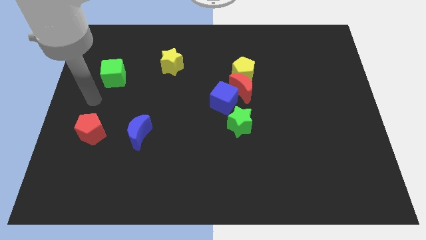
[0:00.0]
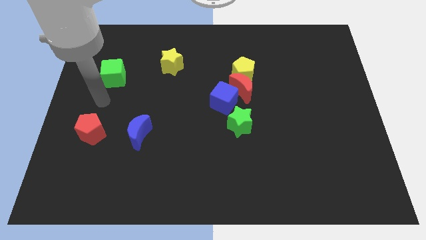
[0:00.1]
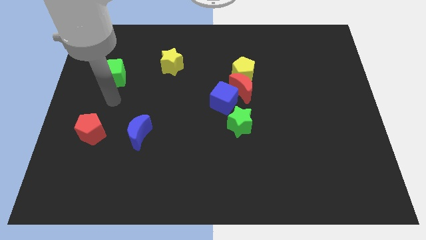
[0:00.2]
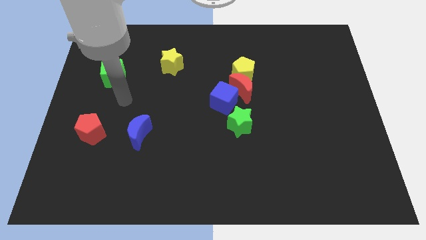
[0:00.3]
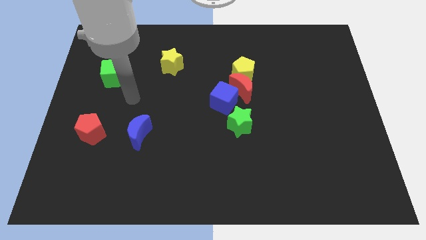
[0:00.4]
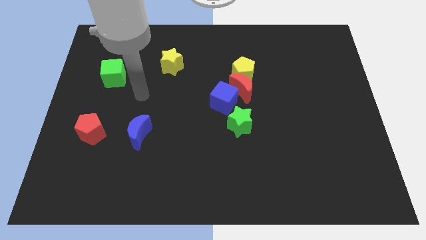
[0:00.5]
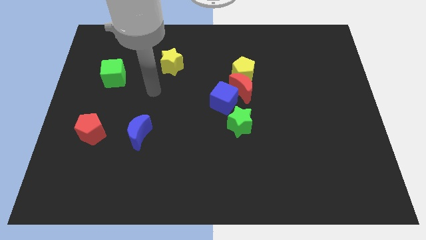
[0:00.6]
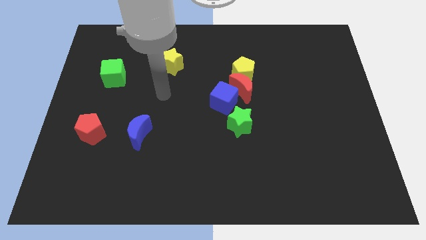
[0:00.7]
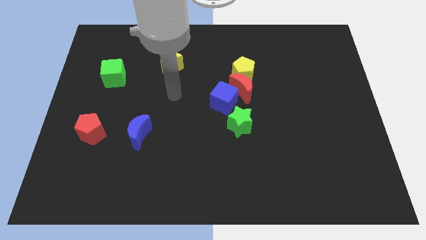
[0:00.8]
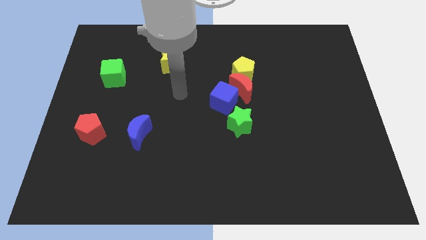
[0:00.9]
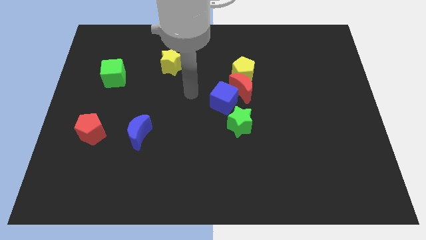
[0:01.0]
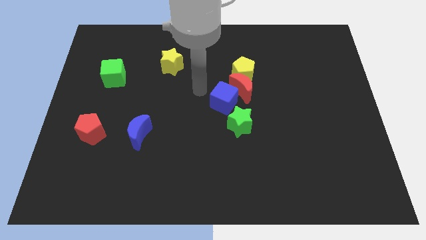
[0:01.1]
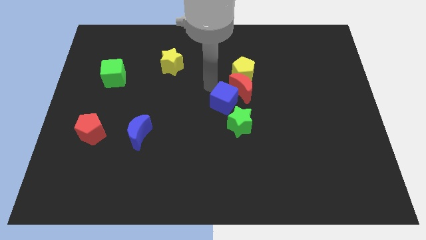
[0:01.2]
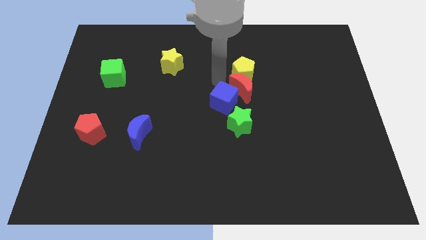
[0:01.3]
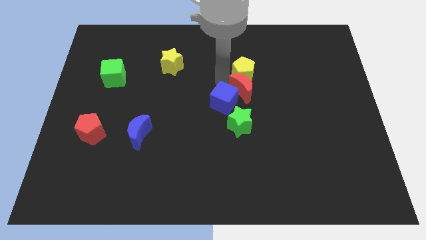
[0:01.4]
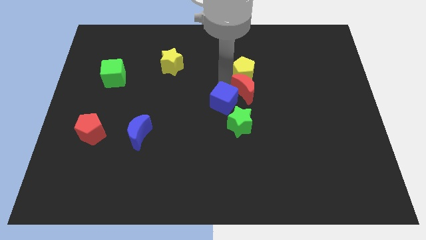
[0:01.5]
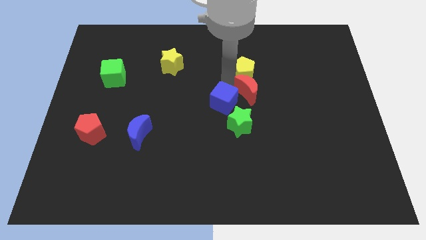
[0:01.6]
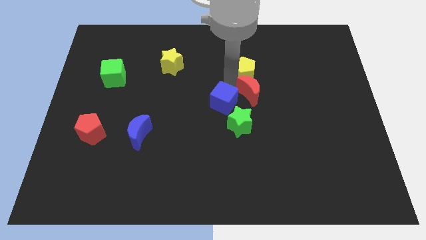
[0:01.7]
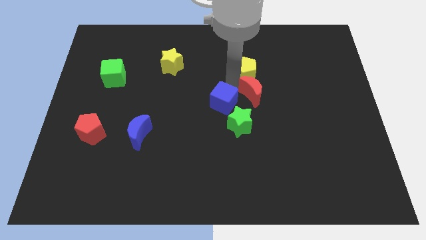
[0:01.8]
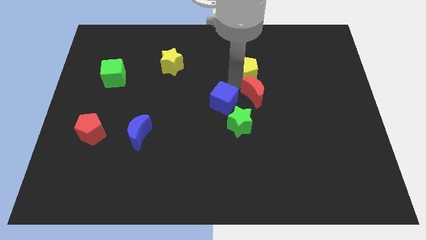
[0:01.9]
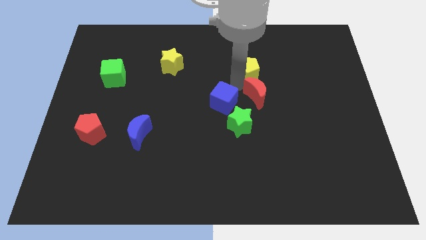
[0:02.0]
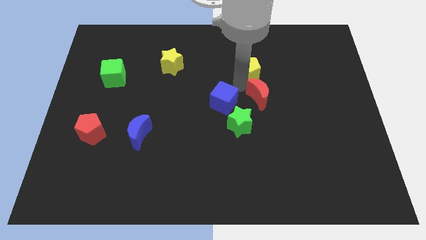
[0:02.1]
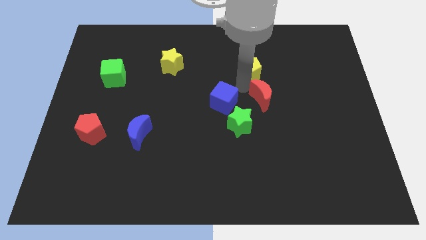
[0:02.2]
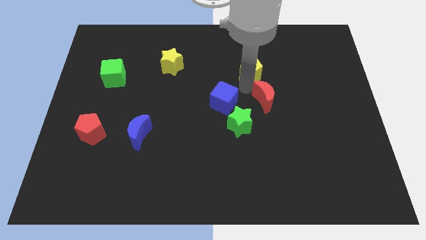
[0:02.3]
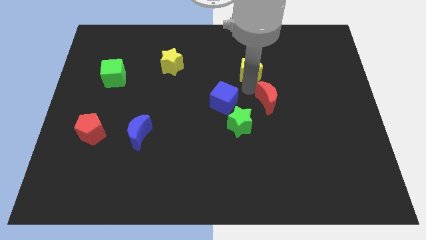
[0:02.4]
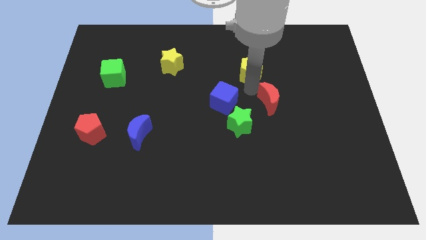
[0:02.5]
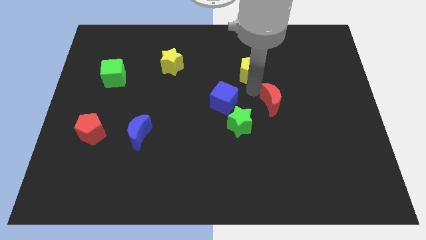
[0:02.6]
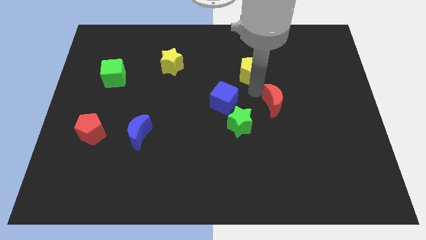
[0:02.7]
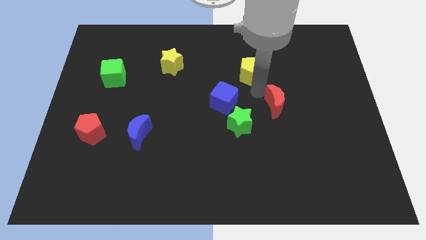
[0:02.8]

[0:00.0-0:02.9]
pull the red moon apart from the yellow pentagon and blue cube

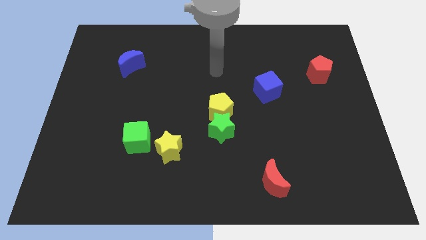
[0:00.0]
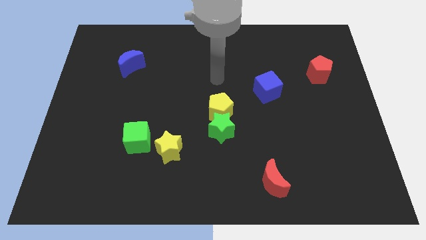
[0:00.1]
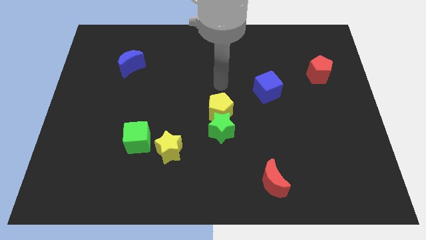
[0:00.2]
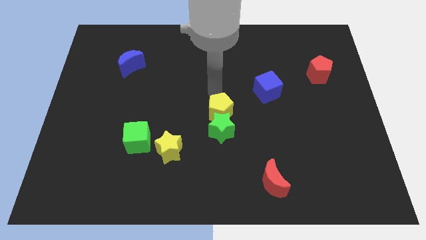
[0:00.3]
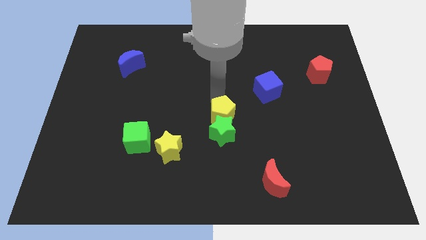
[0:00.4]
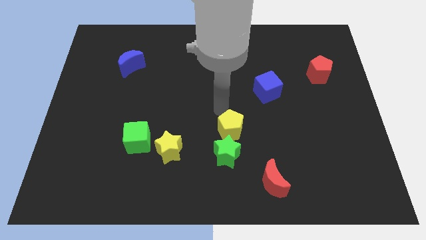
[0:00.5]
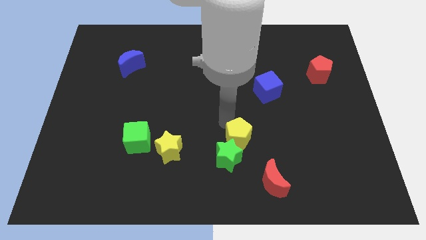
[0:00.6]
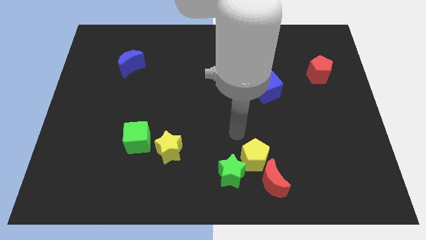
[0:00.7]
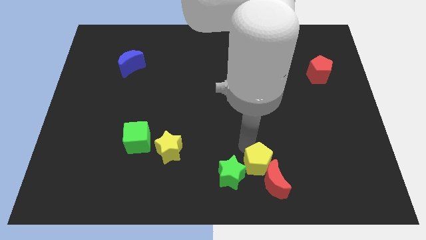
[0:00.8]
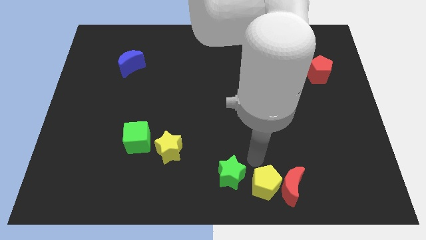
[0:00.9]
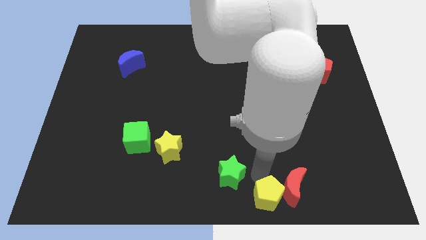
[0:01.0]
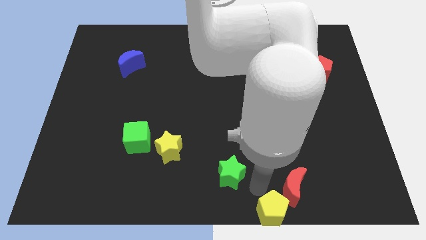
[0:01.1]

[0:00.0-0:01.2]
separate the green star from the yellow pentagon

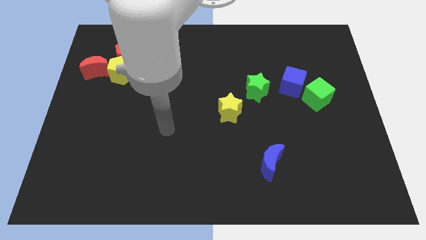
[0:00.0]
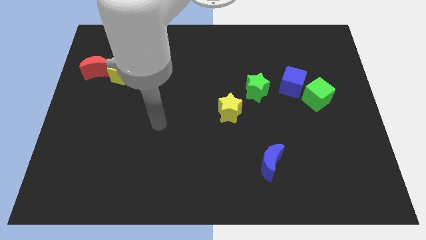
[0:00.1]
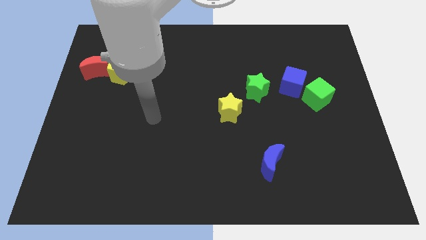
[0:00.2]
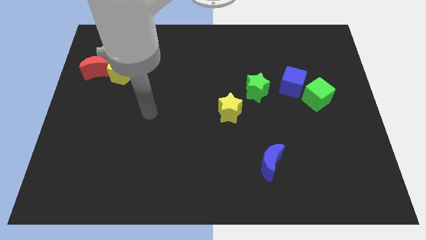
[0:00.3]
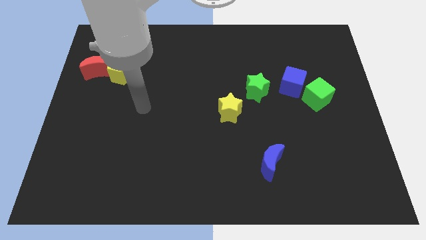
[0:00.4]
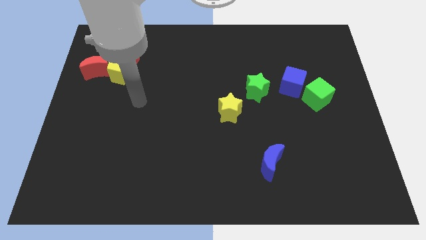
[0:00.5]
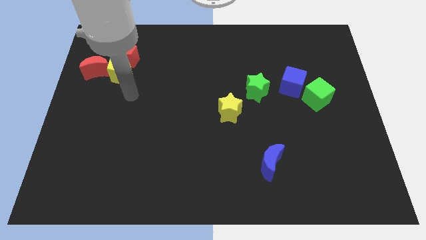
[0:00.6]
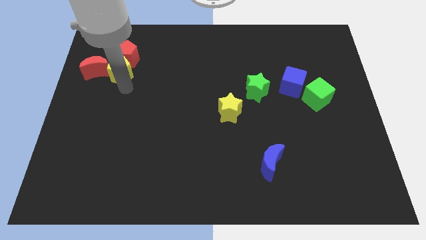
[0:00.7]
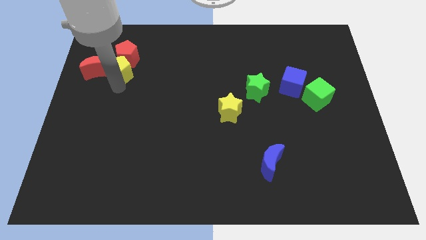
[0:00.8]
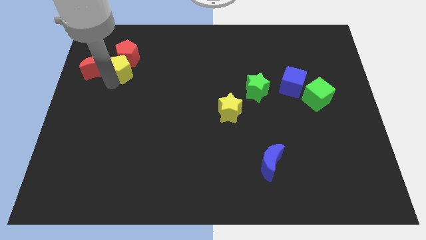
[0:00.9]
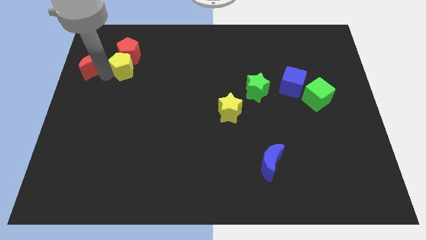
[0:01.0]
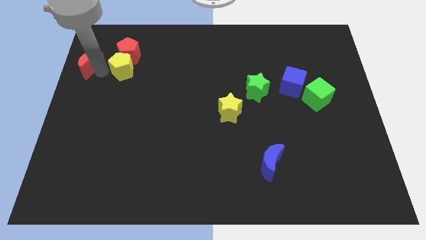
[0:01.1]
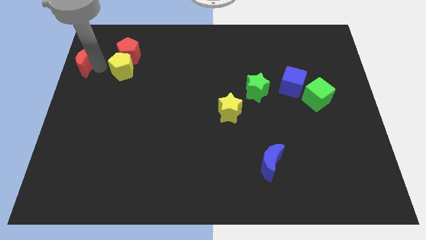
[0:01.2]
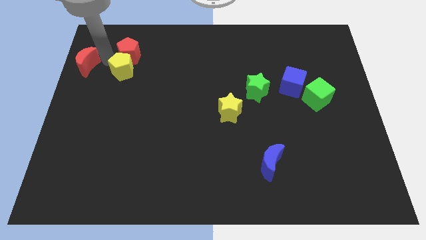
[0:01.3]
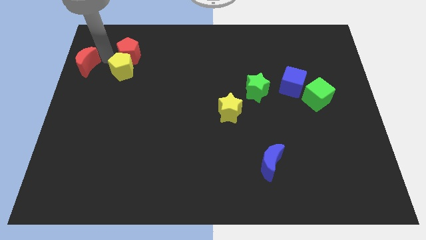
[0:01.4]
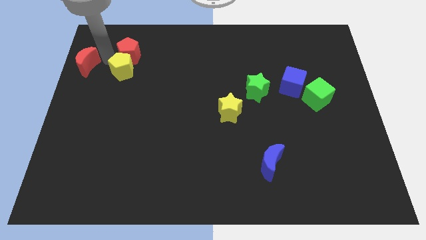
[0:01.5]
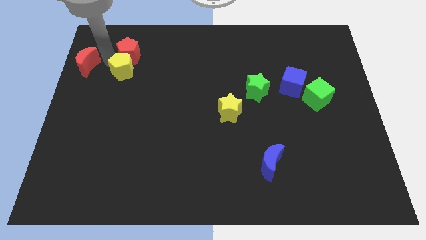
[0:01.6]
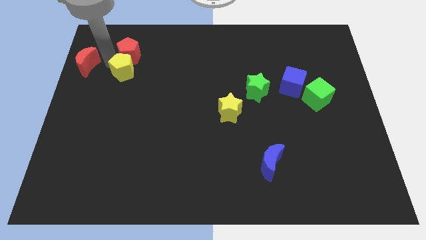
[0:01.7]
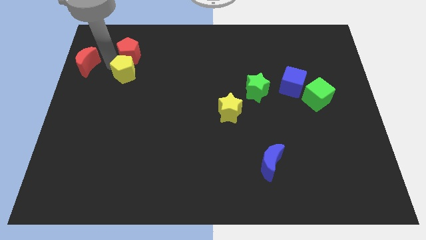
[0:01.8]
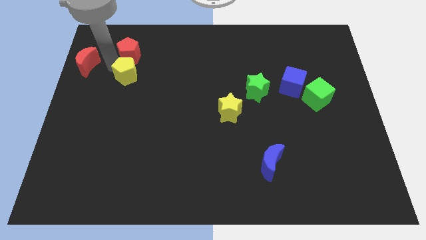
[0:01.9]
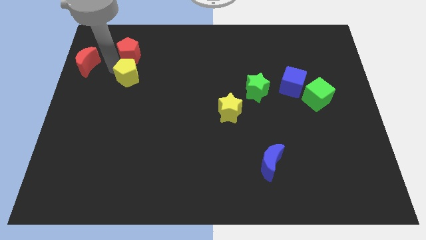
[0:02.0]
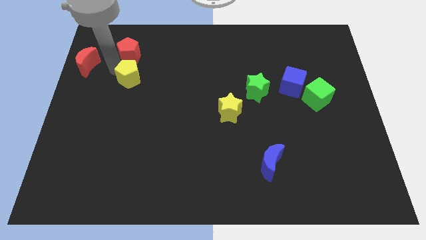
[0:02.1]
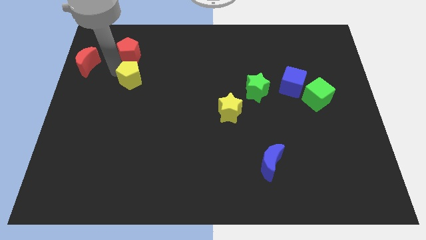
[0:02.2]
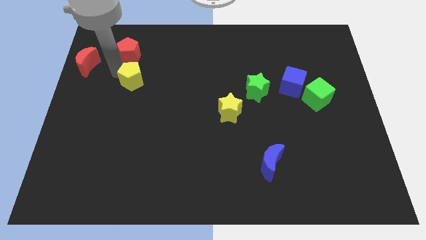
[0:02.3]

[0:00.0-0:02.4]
separate the yellow pentagon from the red pentagon and red moon

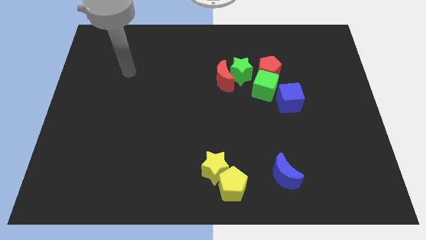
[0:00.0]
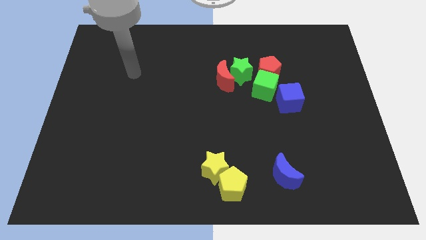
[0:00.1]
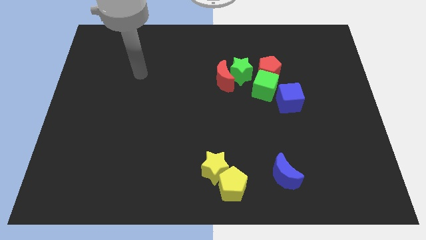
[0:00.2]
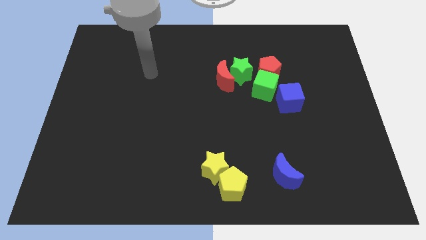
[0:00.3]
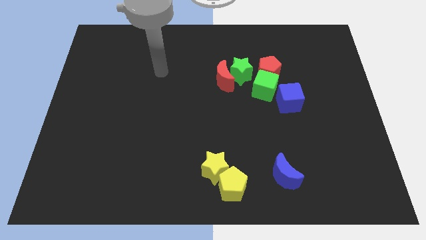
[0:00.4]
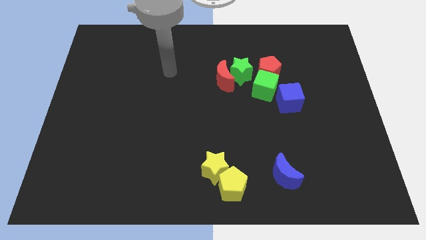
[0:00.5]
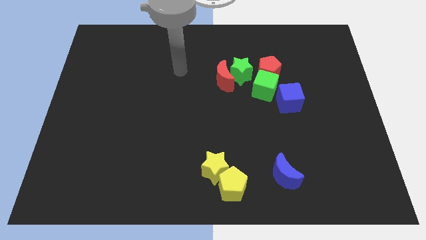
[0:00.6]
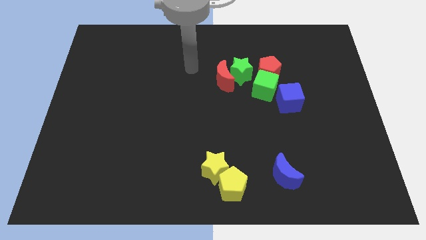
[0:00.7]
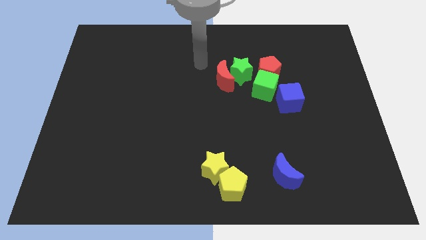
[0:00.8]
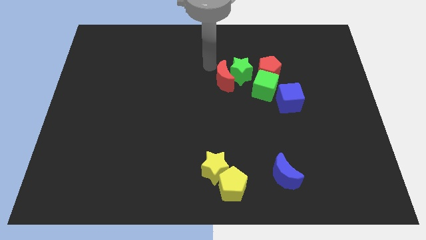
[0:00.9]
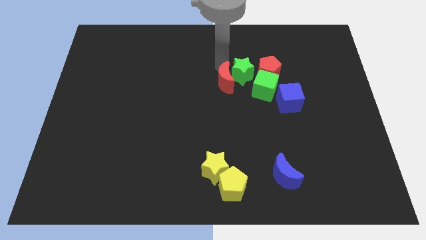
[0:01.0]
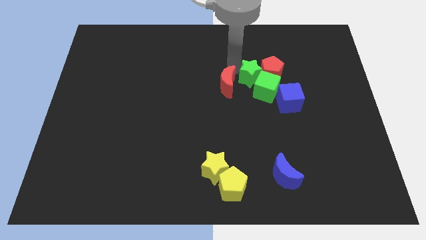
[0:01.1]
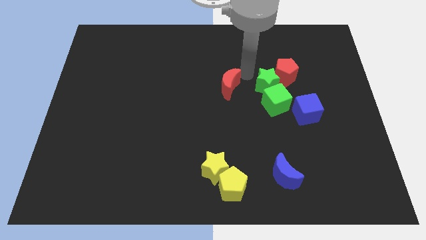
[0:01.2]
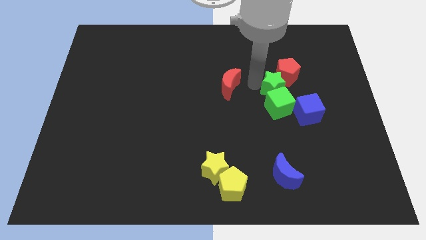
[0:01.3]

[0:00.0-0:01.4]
move the red moon away from the green star

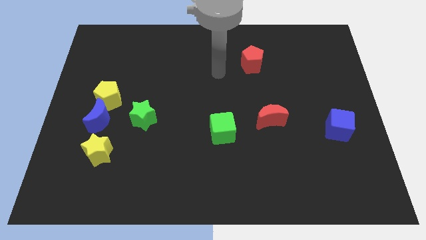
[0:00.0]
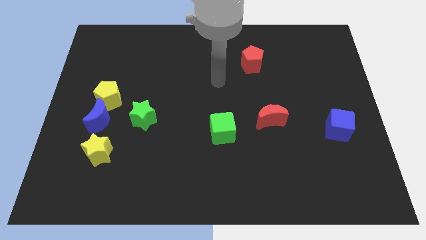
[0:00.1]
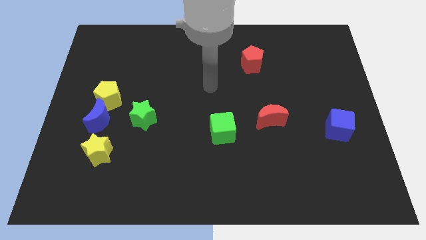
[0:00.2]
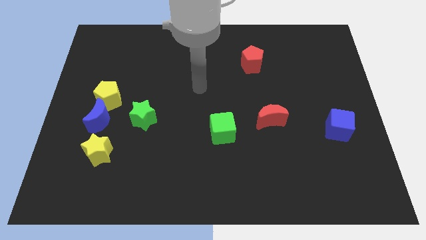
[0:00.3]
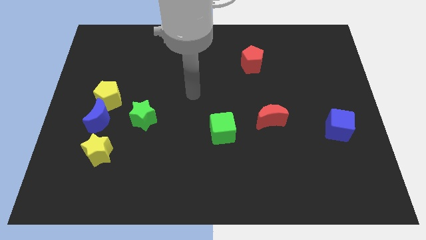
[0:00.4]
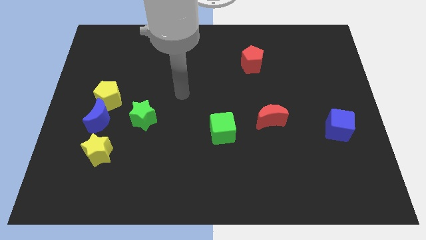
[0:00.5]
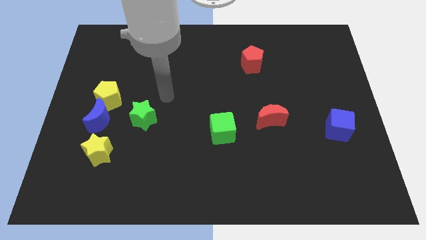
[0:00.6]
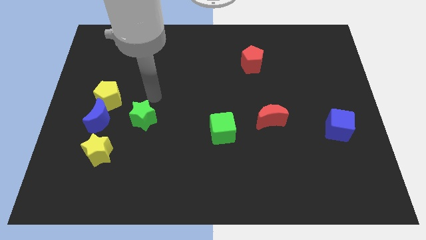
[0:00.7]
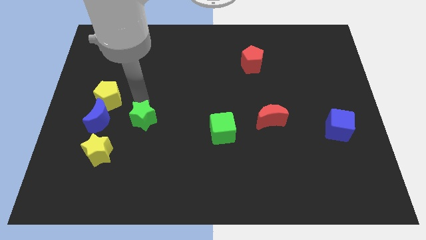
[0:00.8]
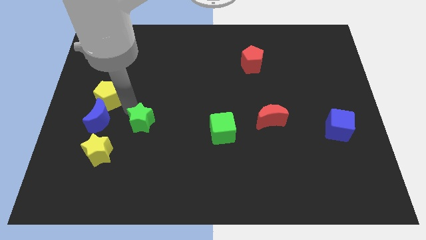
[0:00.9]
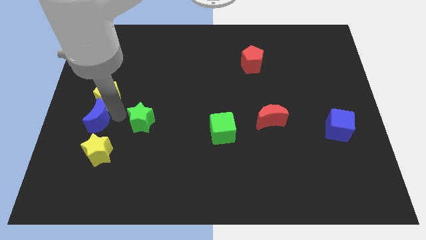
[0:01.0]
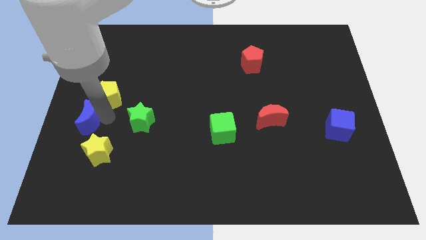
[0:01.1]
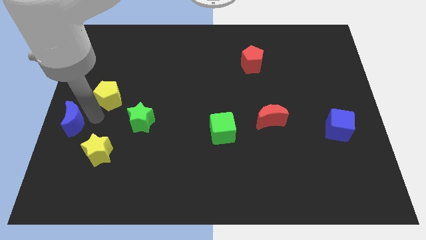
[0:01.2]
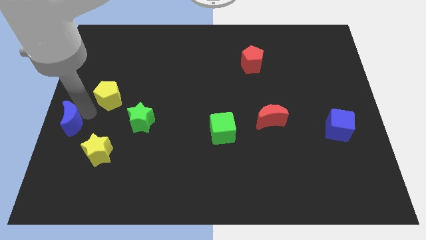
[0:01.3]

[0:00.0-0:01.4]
move the yellow pentagon away from the blue moon
